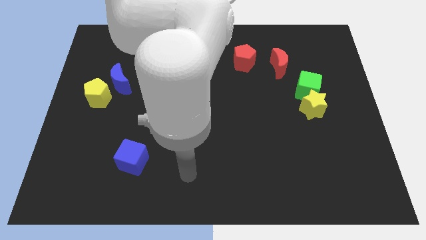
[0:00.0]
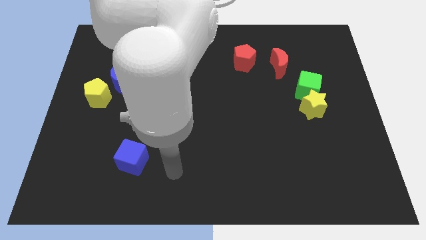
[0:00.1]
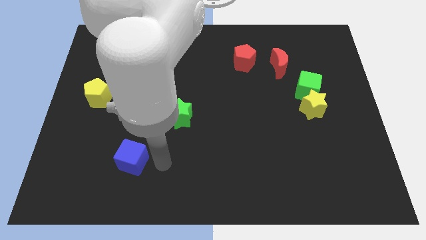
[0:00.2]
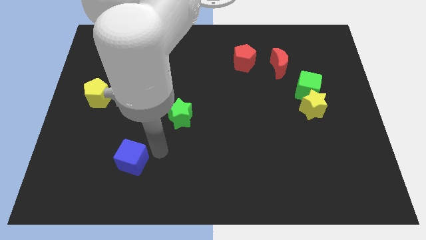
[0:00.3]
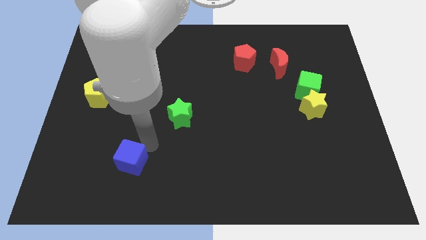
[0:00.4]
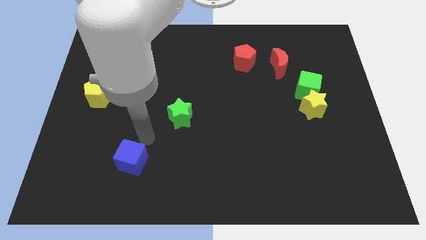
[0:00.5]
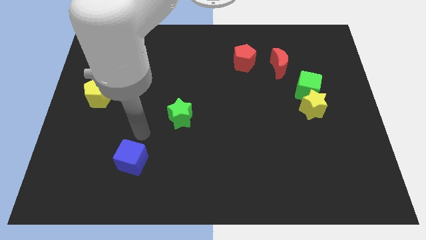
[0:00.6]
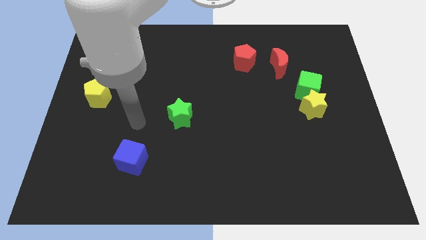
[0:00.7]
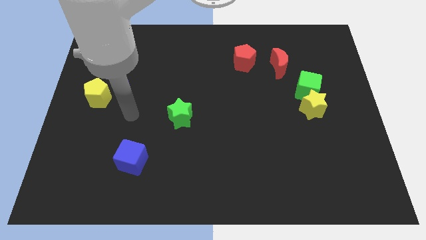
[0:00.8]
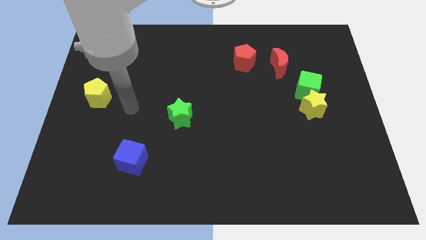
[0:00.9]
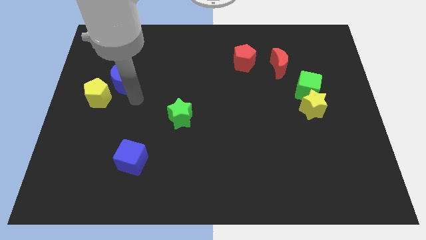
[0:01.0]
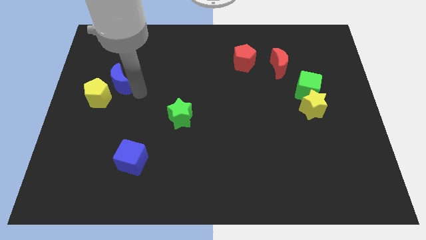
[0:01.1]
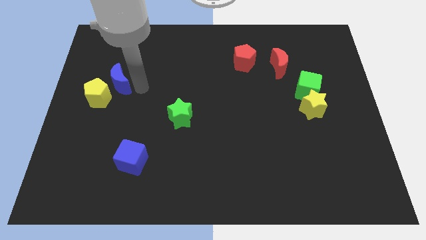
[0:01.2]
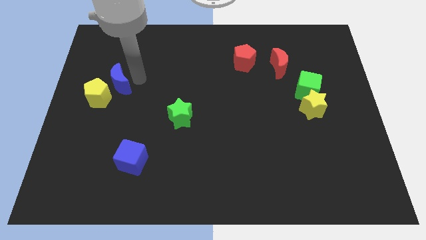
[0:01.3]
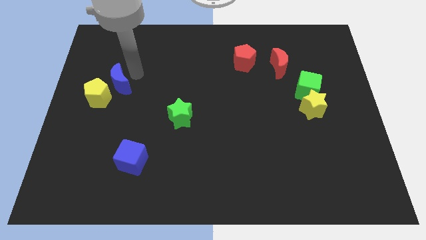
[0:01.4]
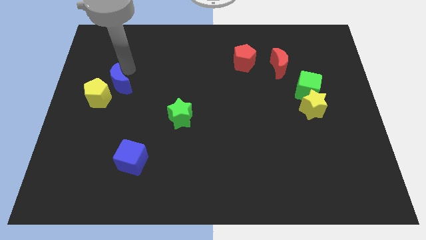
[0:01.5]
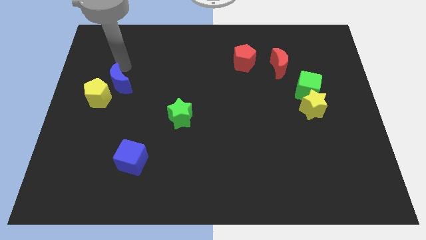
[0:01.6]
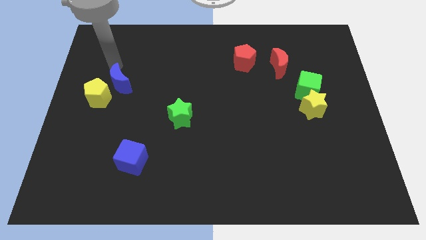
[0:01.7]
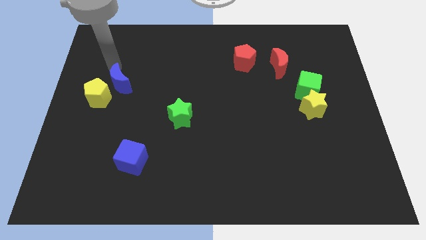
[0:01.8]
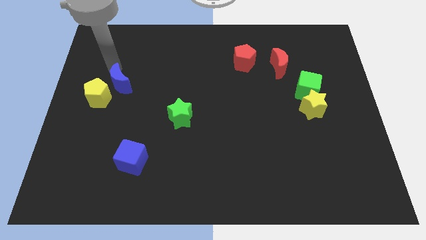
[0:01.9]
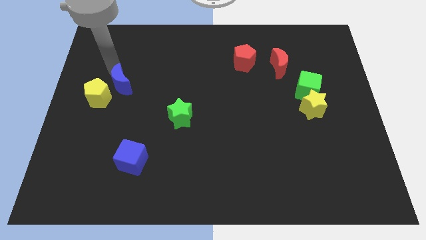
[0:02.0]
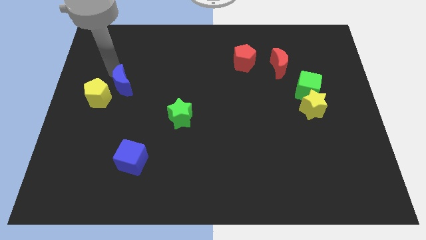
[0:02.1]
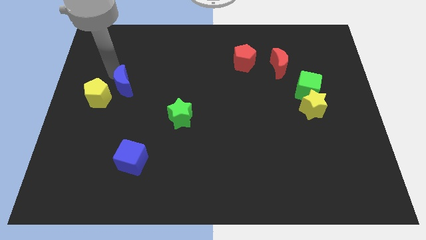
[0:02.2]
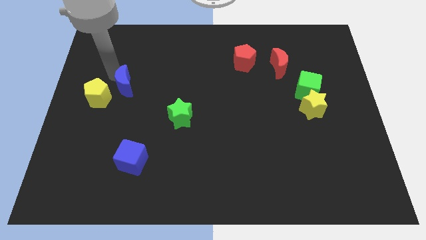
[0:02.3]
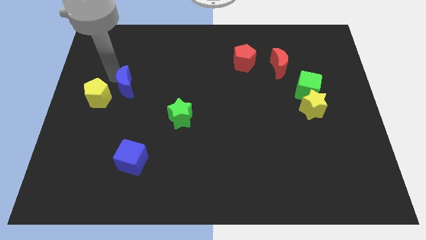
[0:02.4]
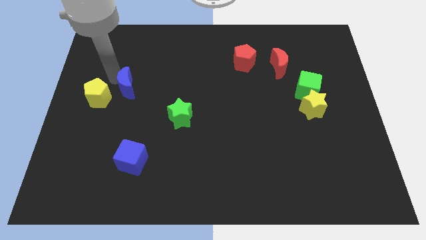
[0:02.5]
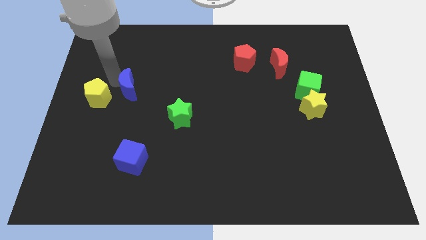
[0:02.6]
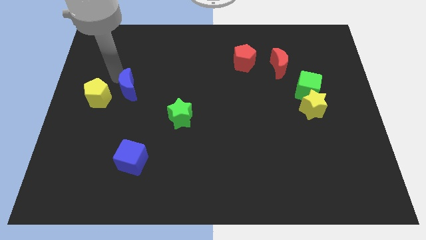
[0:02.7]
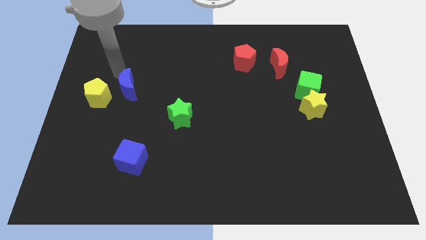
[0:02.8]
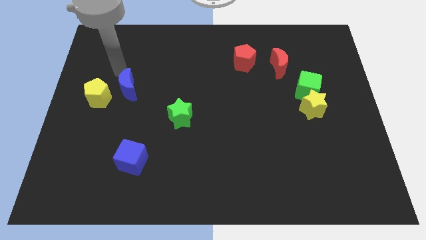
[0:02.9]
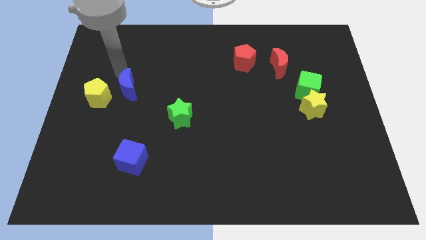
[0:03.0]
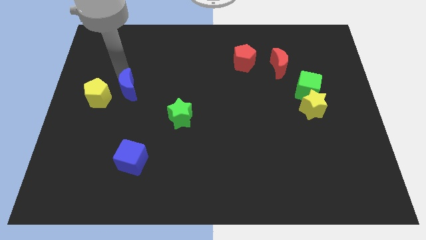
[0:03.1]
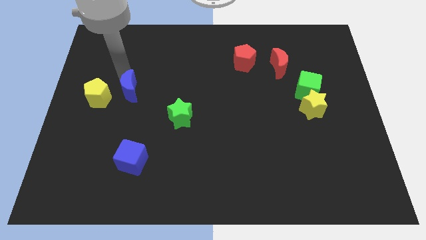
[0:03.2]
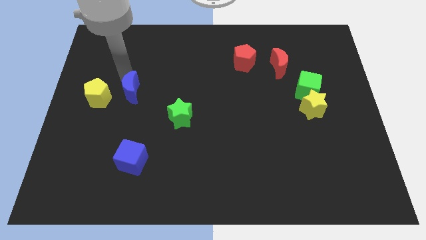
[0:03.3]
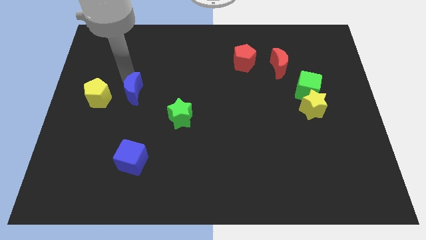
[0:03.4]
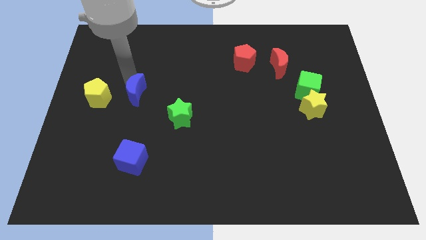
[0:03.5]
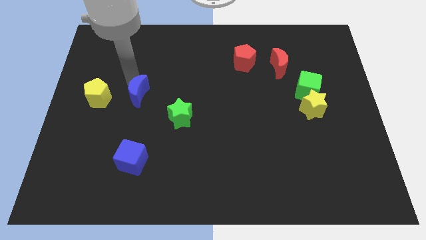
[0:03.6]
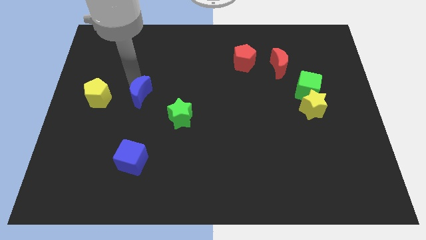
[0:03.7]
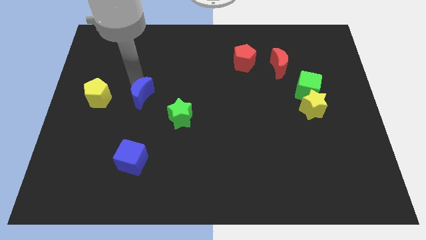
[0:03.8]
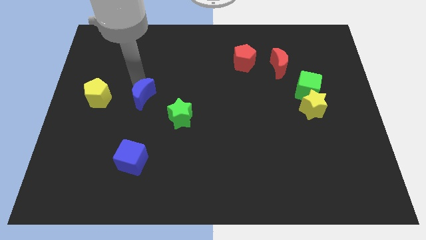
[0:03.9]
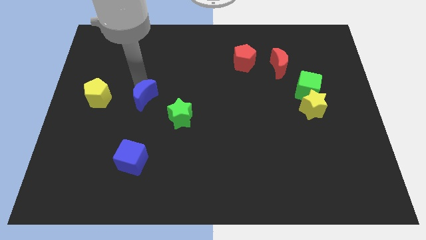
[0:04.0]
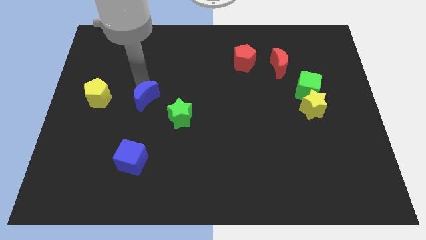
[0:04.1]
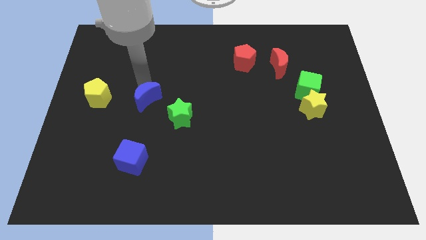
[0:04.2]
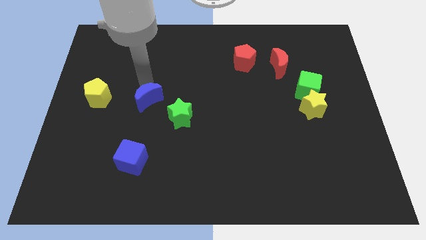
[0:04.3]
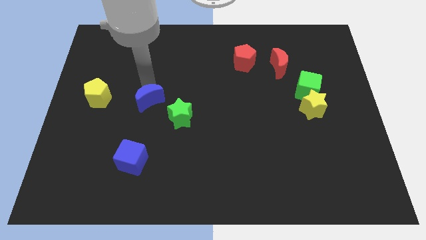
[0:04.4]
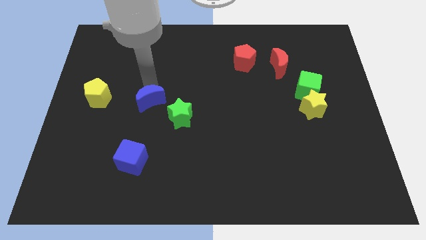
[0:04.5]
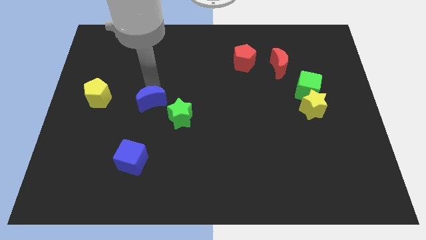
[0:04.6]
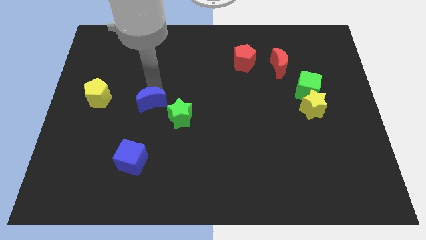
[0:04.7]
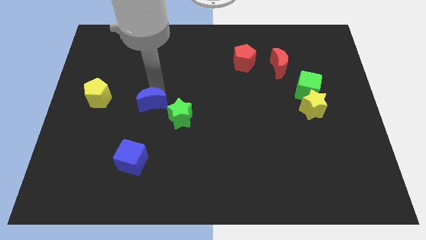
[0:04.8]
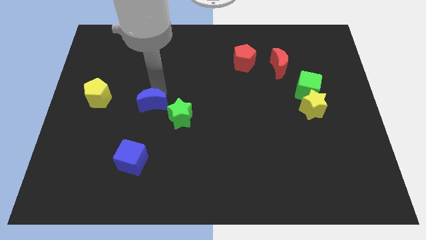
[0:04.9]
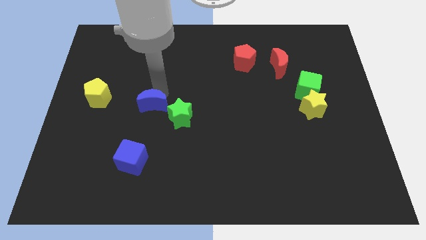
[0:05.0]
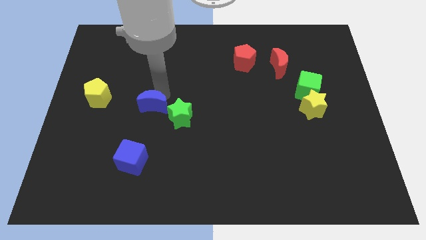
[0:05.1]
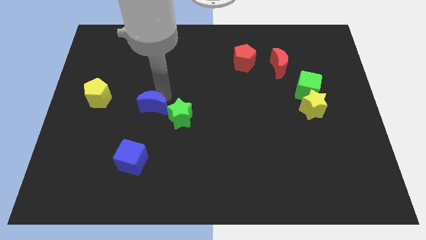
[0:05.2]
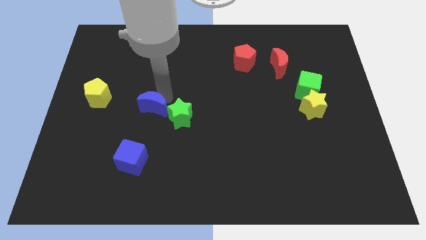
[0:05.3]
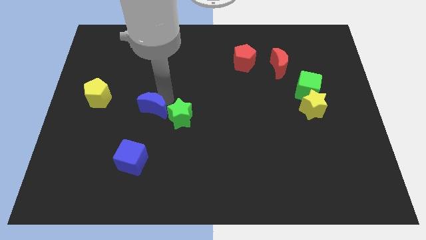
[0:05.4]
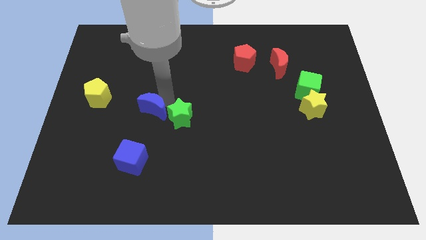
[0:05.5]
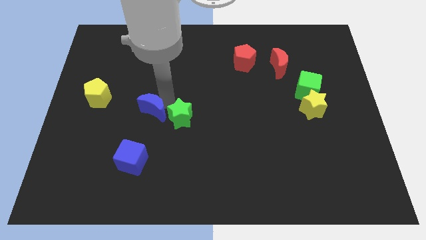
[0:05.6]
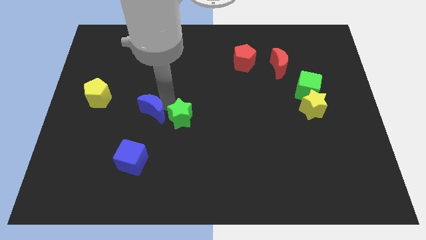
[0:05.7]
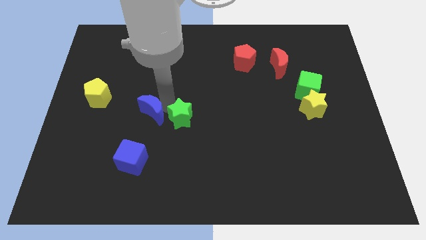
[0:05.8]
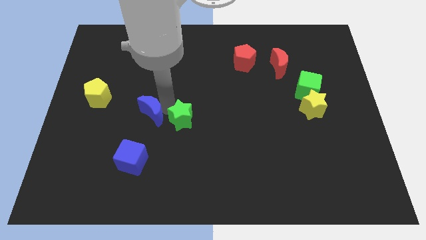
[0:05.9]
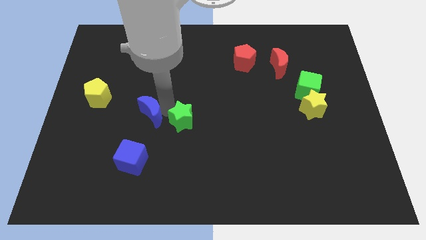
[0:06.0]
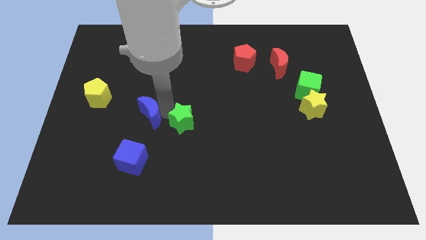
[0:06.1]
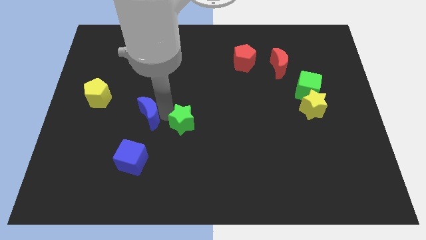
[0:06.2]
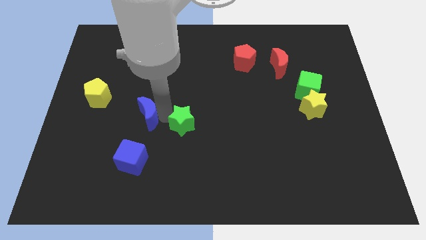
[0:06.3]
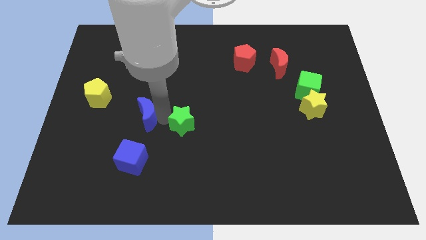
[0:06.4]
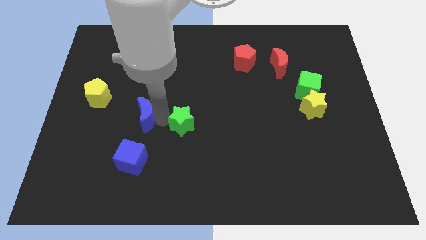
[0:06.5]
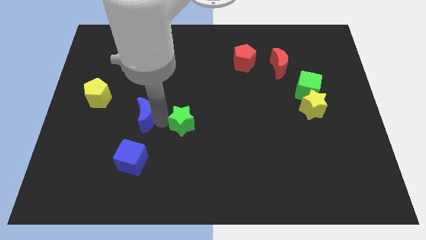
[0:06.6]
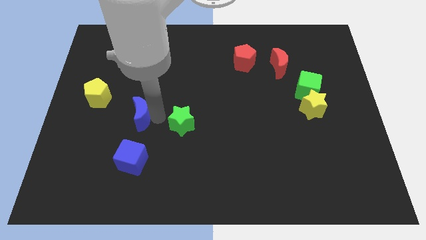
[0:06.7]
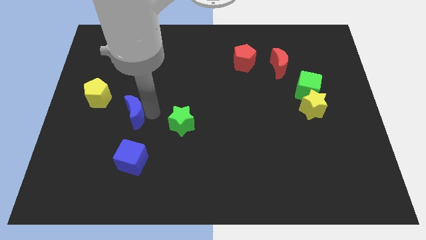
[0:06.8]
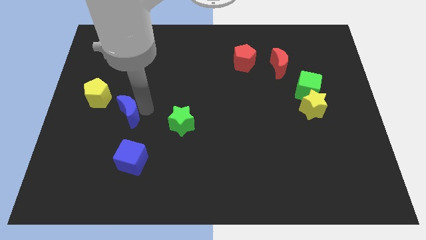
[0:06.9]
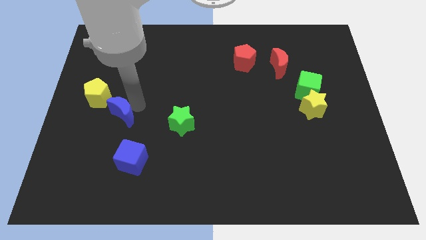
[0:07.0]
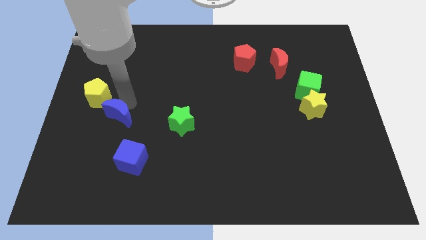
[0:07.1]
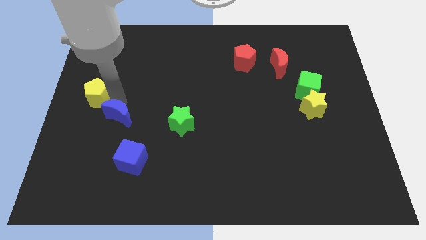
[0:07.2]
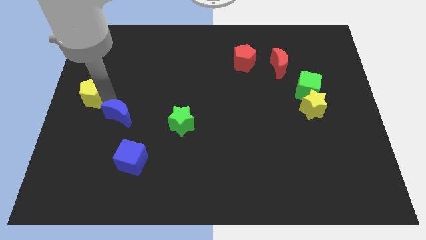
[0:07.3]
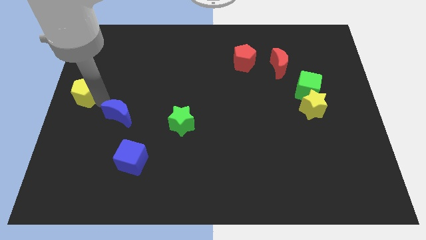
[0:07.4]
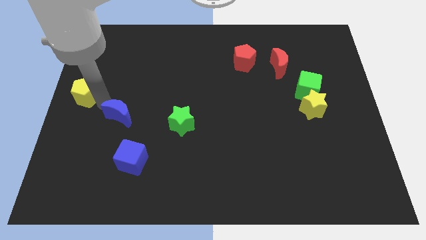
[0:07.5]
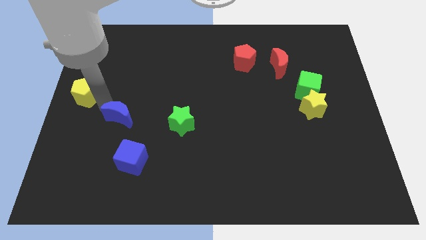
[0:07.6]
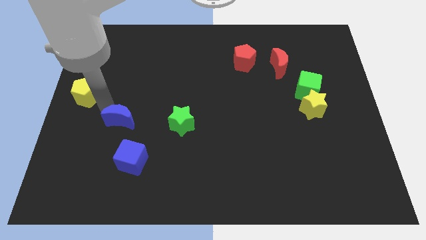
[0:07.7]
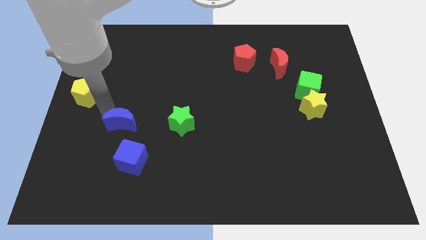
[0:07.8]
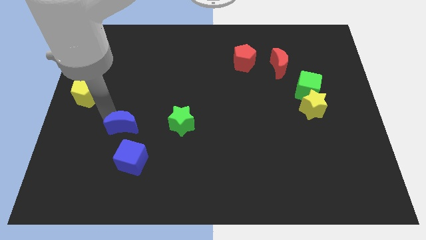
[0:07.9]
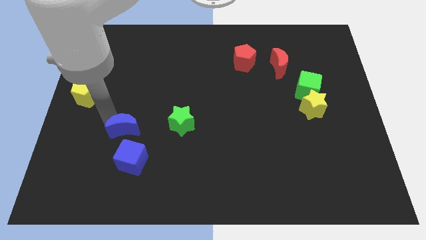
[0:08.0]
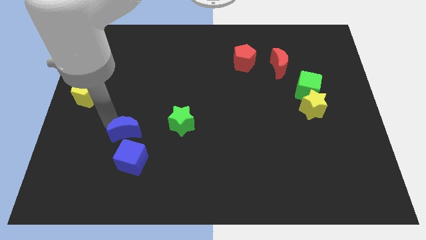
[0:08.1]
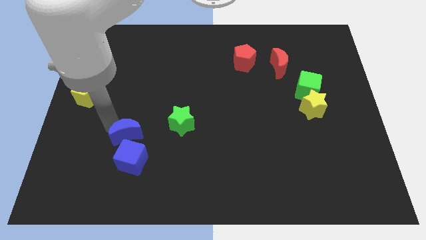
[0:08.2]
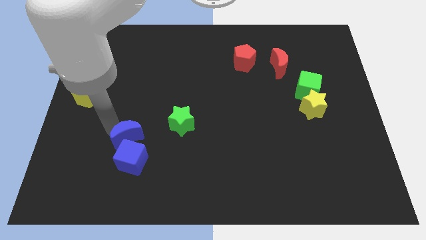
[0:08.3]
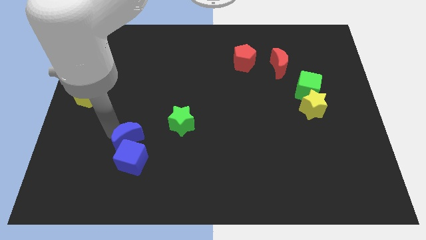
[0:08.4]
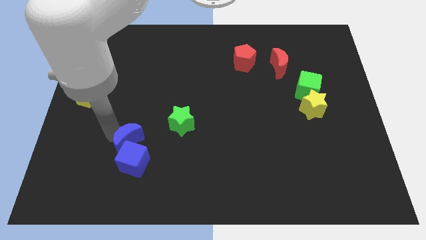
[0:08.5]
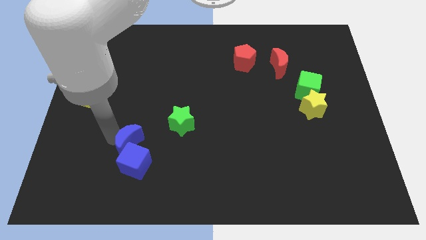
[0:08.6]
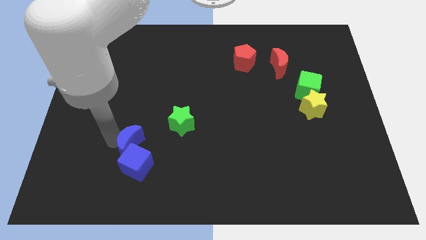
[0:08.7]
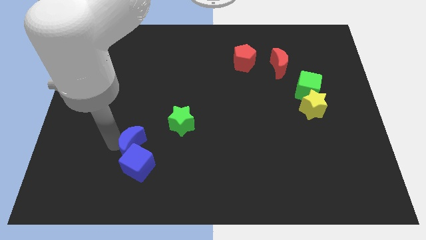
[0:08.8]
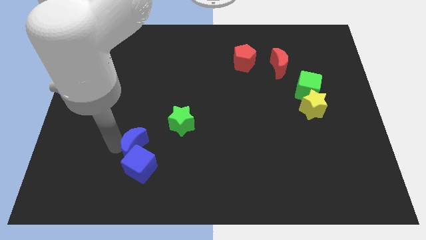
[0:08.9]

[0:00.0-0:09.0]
put the blue moon to the bottom left side of the green star
